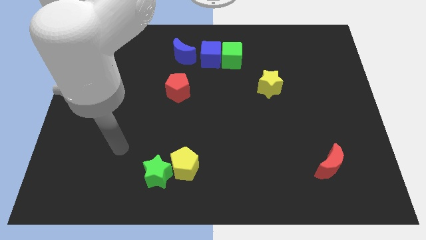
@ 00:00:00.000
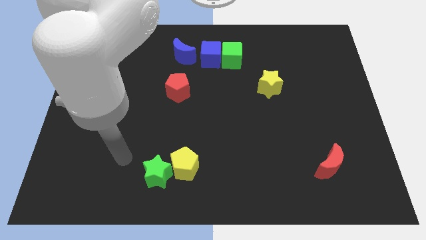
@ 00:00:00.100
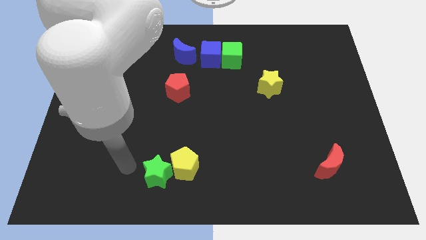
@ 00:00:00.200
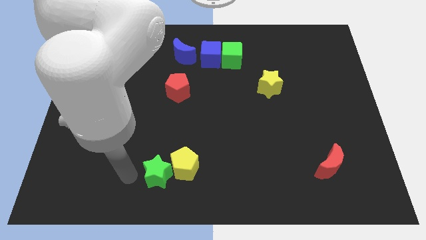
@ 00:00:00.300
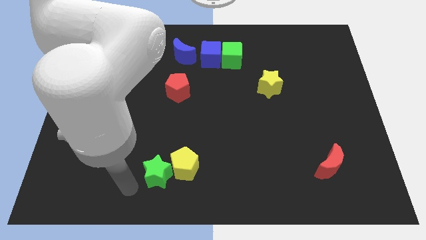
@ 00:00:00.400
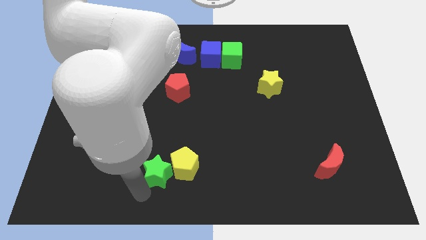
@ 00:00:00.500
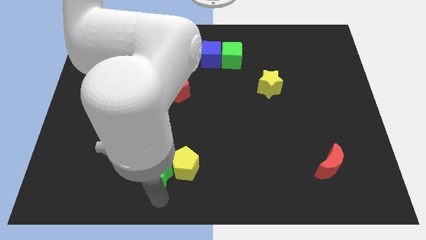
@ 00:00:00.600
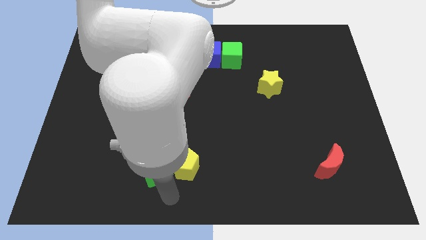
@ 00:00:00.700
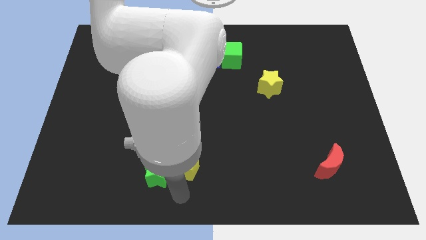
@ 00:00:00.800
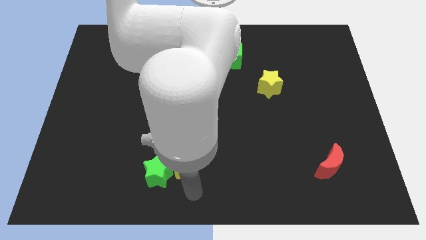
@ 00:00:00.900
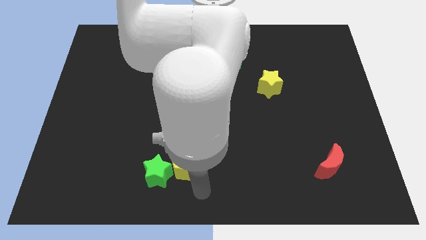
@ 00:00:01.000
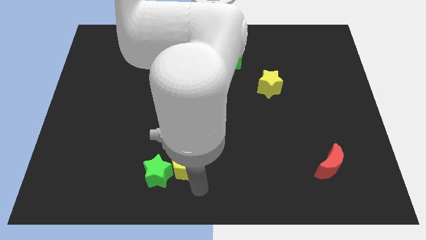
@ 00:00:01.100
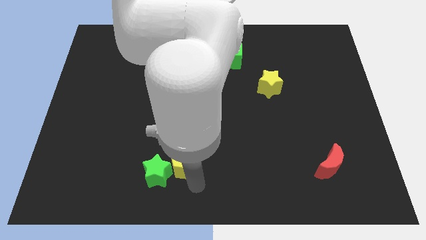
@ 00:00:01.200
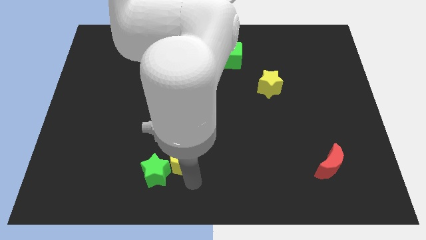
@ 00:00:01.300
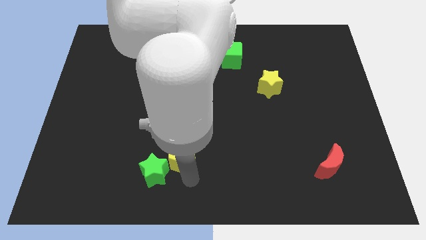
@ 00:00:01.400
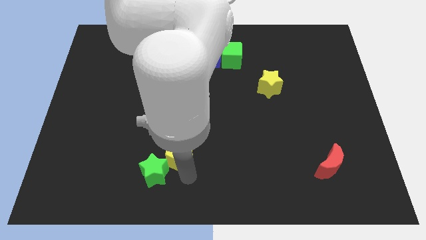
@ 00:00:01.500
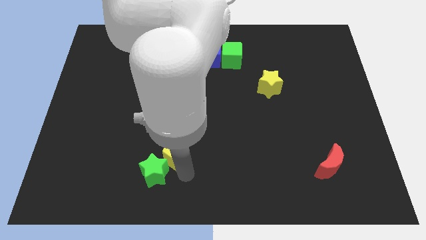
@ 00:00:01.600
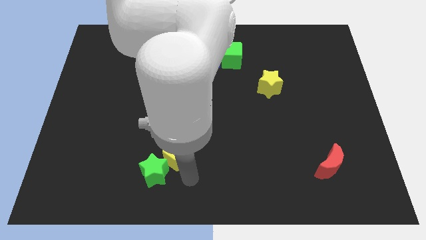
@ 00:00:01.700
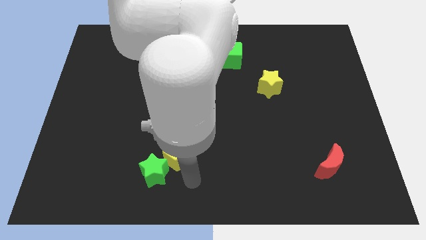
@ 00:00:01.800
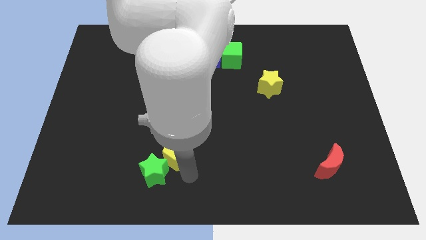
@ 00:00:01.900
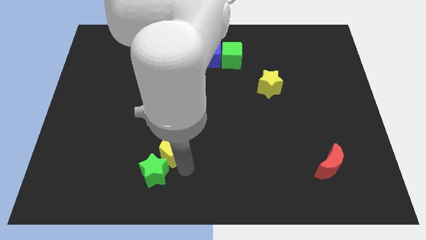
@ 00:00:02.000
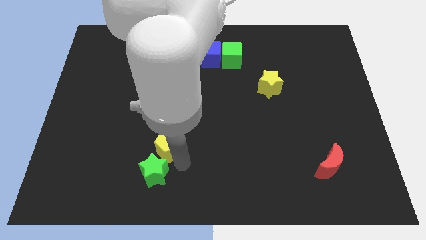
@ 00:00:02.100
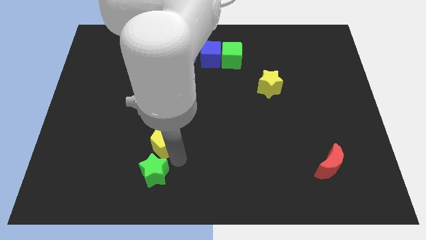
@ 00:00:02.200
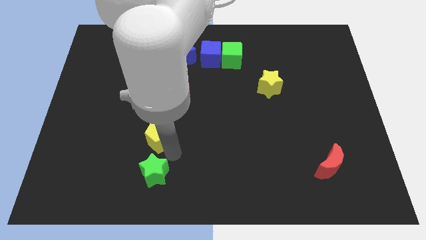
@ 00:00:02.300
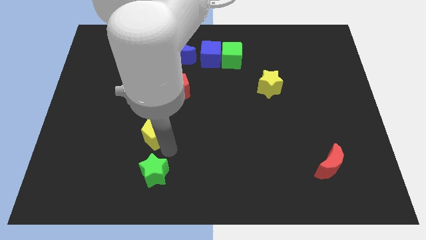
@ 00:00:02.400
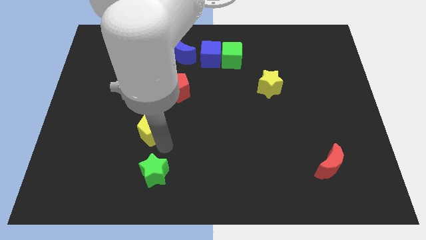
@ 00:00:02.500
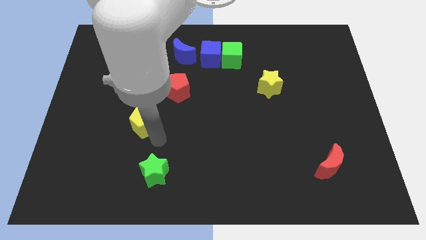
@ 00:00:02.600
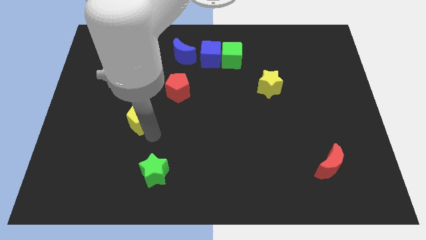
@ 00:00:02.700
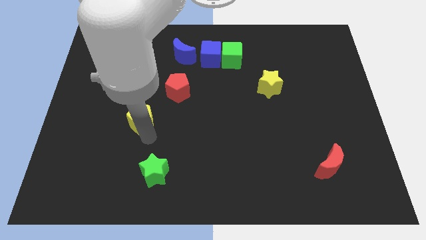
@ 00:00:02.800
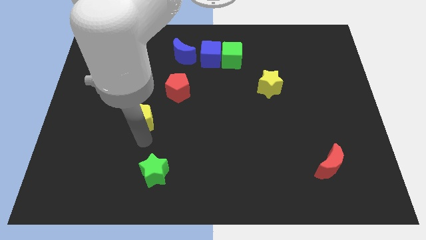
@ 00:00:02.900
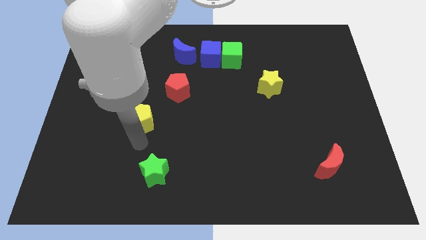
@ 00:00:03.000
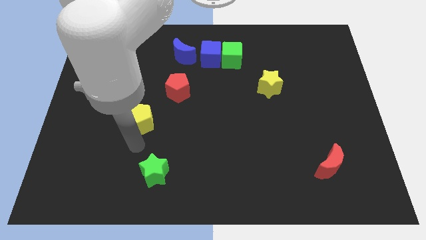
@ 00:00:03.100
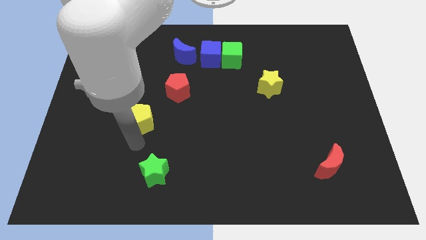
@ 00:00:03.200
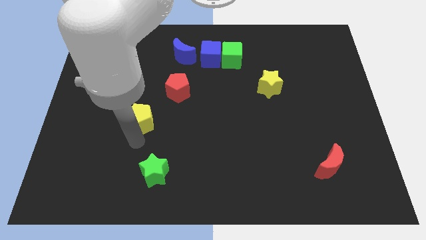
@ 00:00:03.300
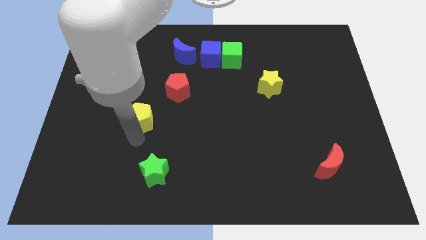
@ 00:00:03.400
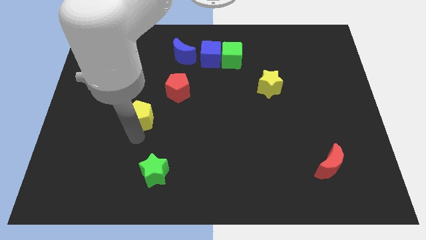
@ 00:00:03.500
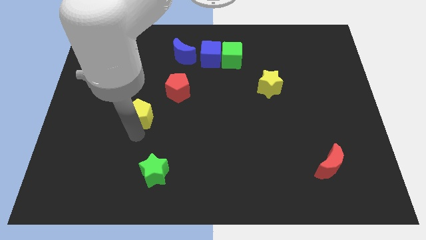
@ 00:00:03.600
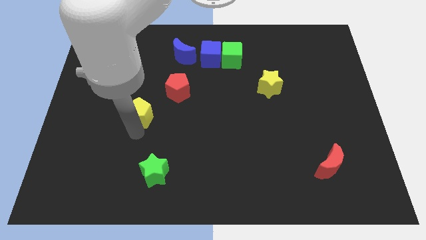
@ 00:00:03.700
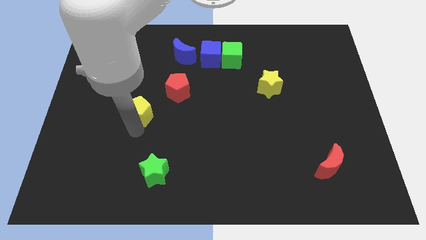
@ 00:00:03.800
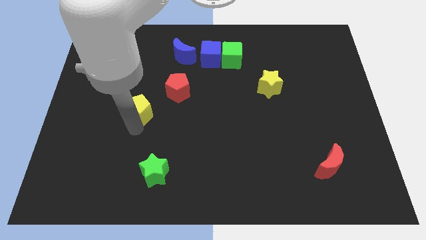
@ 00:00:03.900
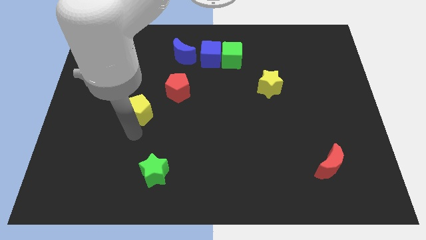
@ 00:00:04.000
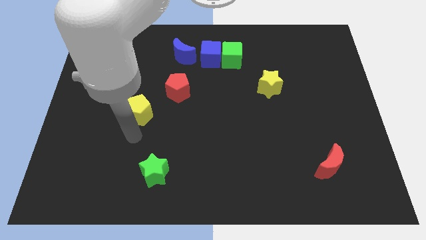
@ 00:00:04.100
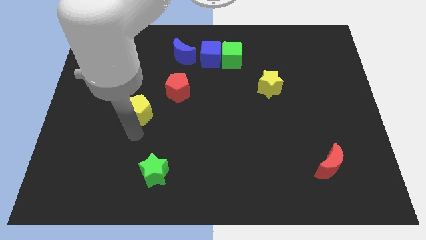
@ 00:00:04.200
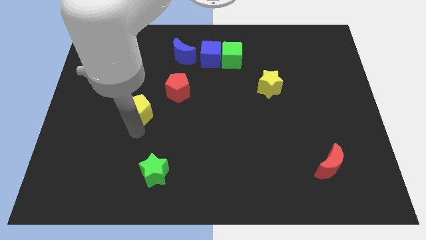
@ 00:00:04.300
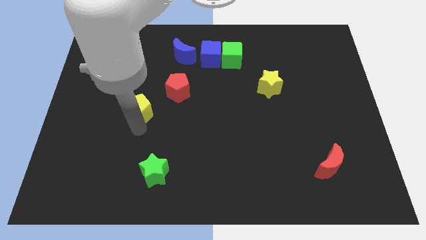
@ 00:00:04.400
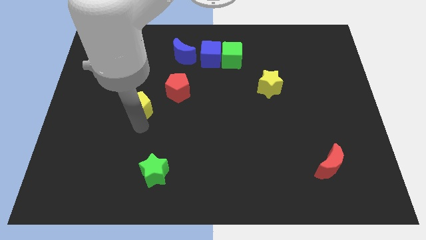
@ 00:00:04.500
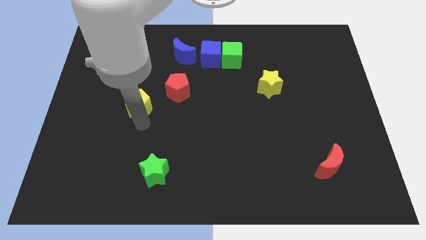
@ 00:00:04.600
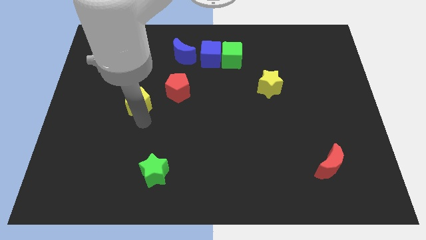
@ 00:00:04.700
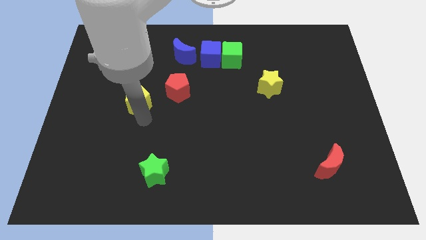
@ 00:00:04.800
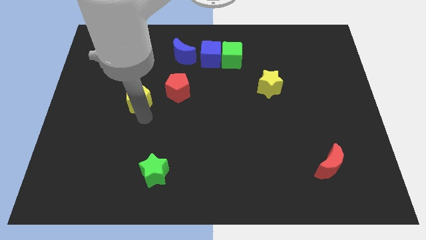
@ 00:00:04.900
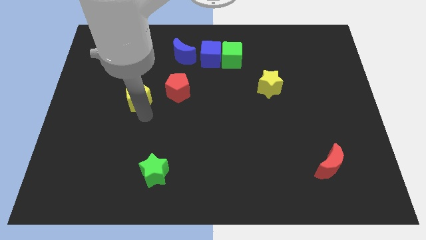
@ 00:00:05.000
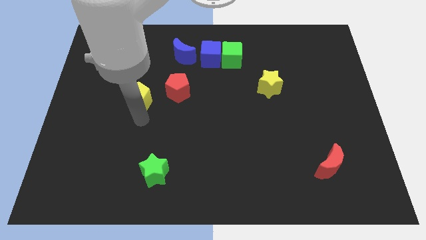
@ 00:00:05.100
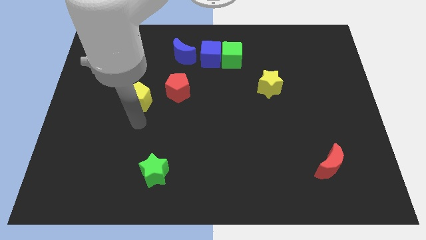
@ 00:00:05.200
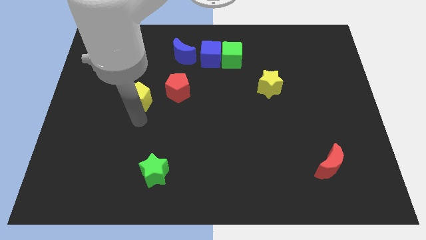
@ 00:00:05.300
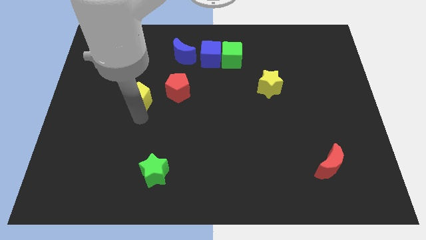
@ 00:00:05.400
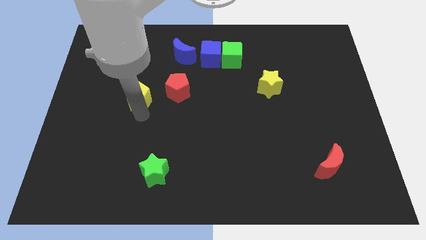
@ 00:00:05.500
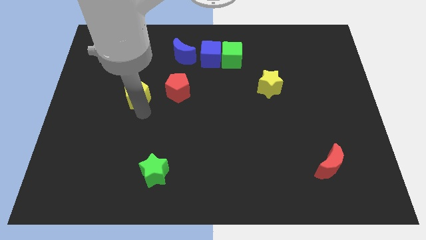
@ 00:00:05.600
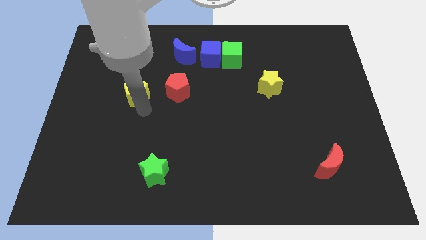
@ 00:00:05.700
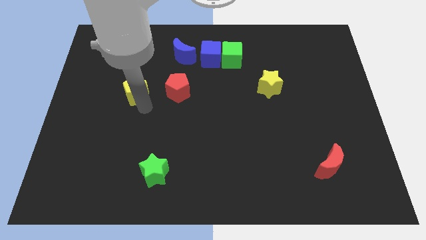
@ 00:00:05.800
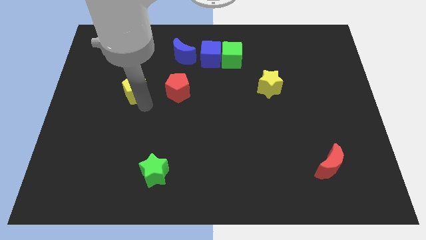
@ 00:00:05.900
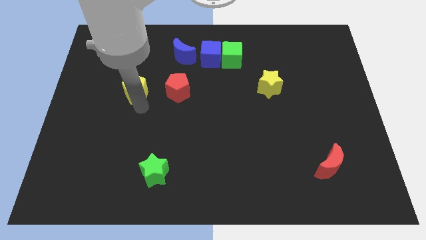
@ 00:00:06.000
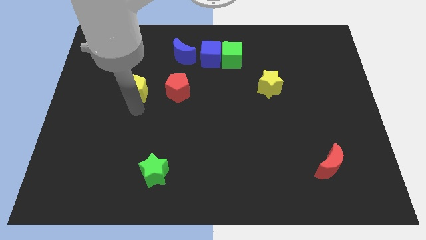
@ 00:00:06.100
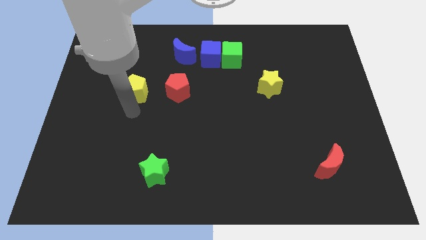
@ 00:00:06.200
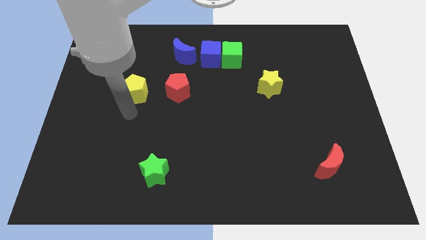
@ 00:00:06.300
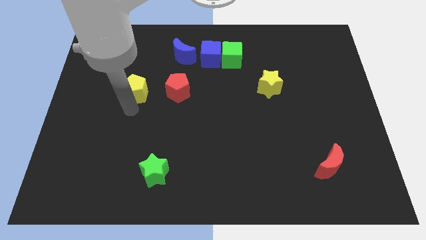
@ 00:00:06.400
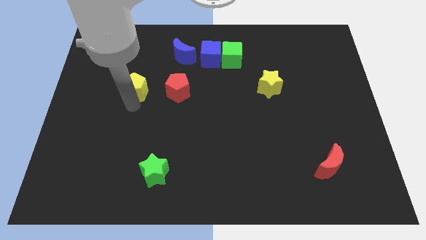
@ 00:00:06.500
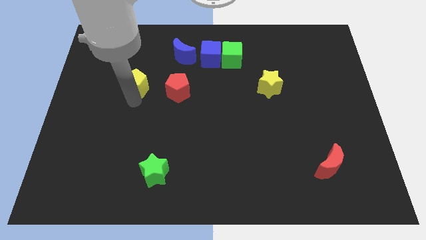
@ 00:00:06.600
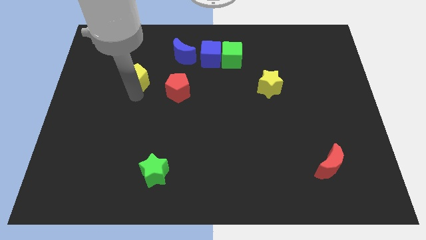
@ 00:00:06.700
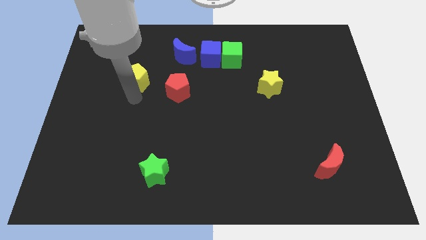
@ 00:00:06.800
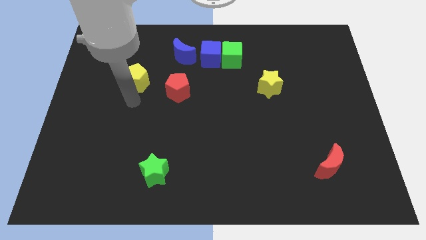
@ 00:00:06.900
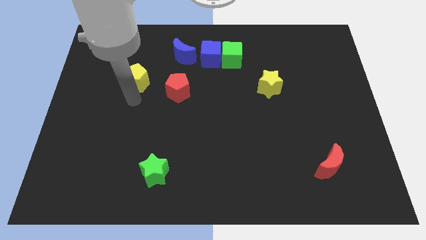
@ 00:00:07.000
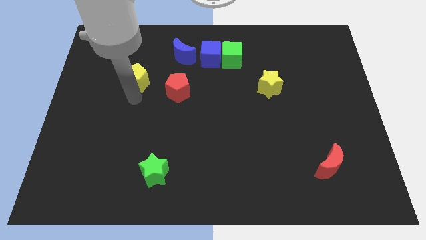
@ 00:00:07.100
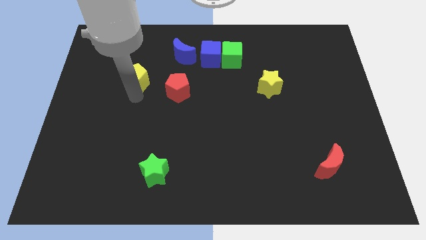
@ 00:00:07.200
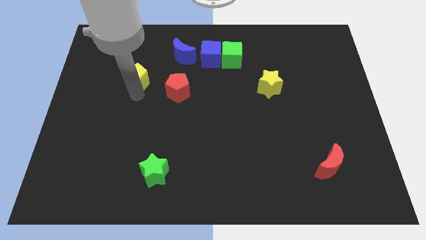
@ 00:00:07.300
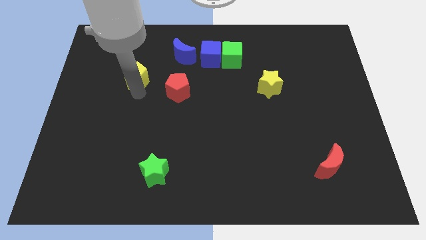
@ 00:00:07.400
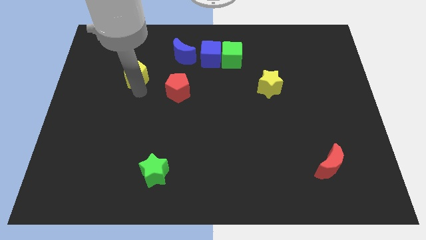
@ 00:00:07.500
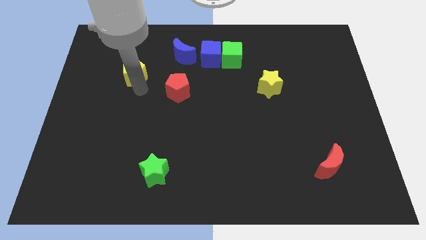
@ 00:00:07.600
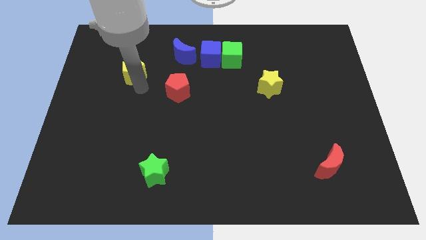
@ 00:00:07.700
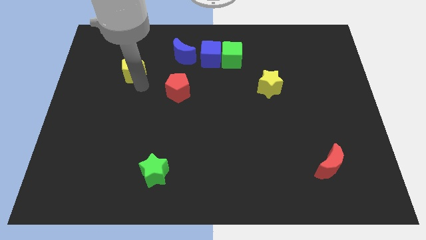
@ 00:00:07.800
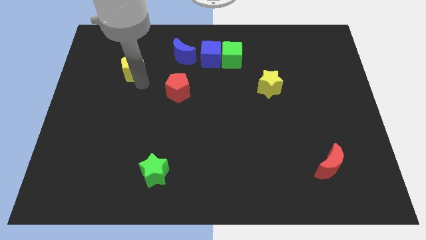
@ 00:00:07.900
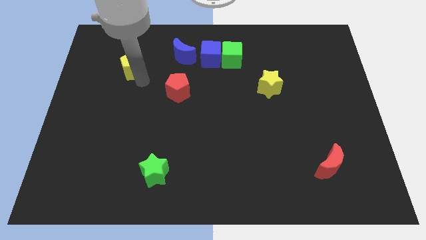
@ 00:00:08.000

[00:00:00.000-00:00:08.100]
push the yellow pentagon left of the blue moon
